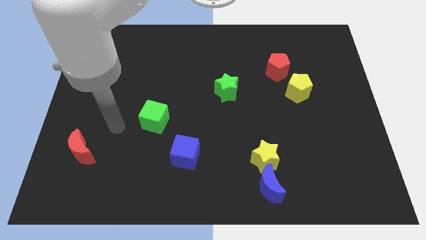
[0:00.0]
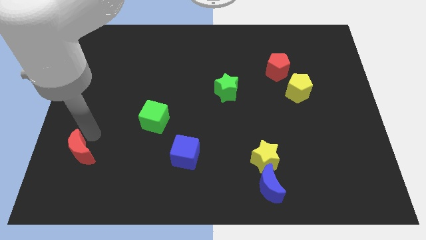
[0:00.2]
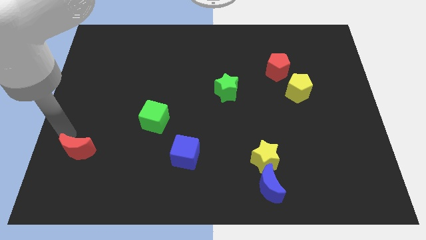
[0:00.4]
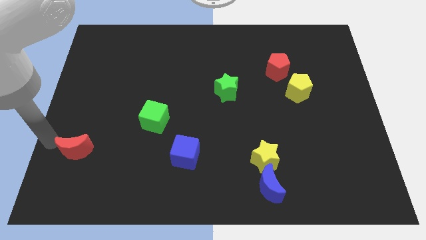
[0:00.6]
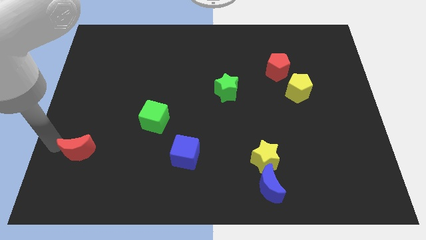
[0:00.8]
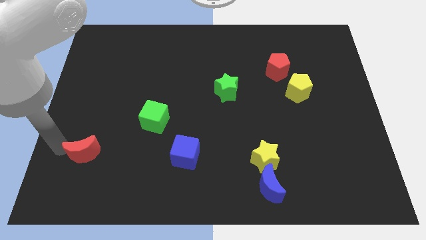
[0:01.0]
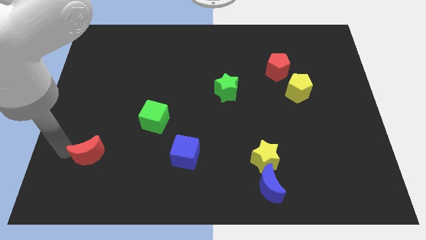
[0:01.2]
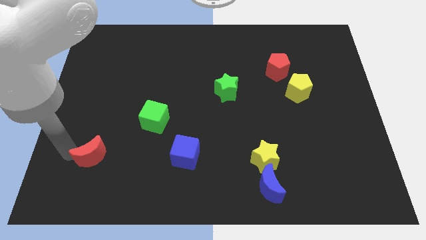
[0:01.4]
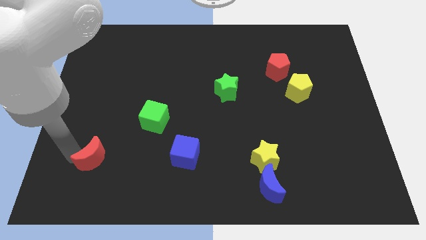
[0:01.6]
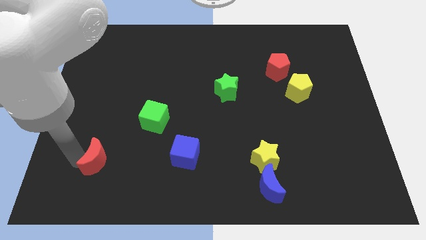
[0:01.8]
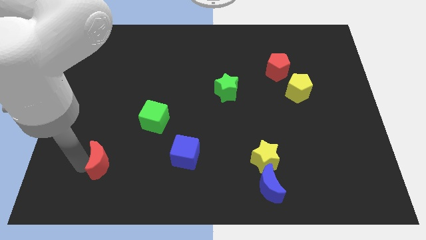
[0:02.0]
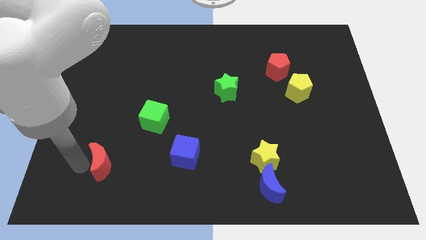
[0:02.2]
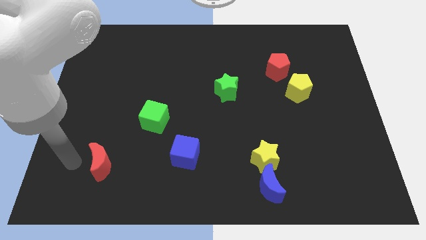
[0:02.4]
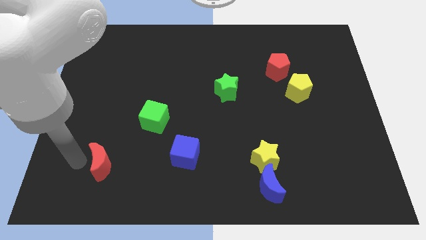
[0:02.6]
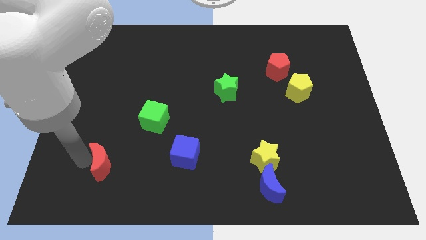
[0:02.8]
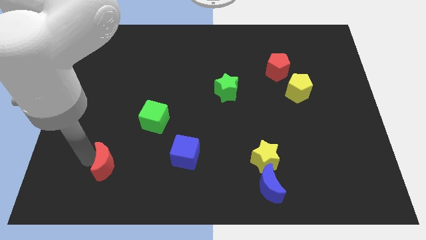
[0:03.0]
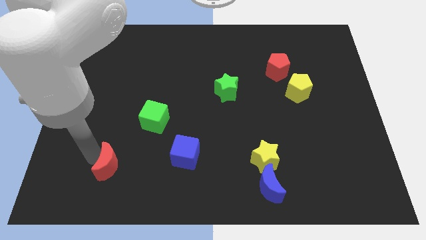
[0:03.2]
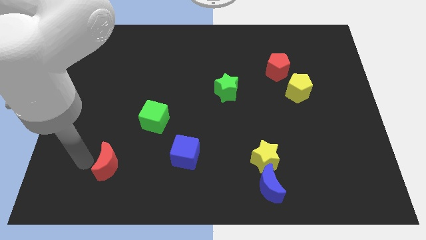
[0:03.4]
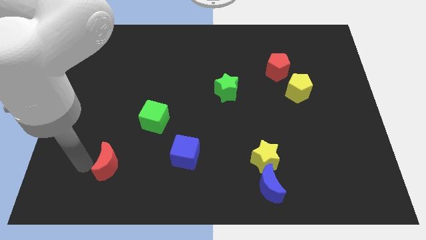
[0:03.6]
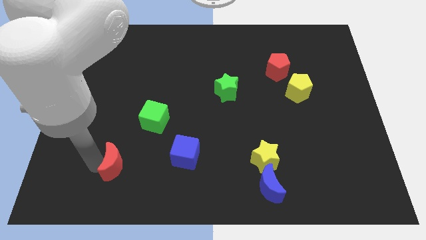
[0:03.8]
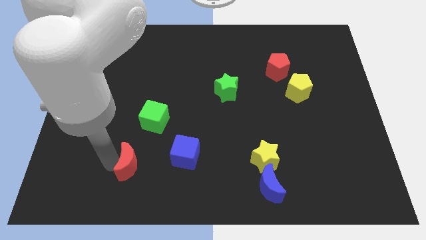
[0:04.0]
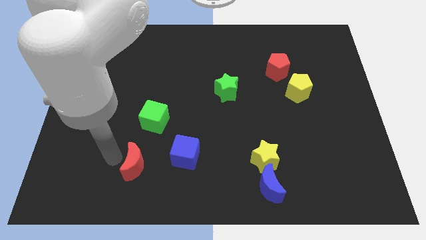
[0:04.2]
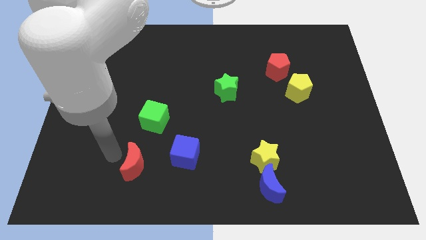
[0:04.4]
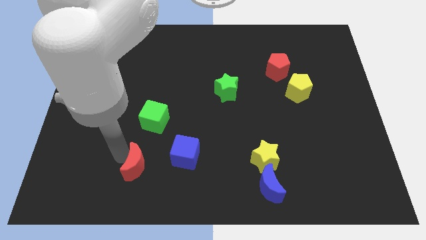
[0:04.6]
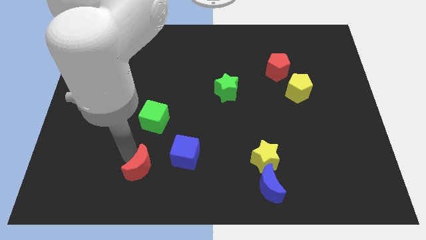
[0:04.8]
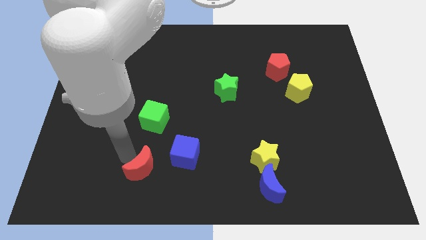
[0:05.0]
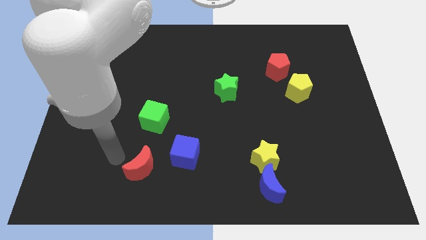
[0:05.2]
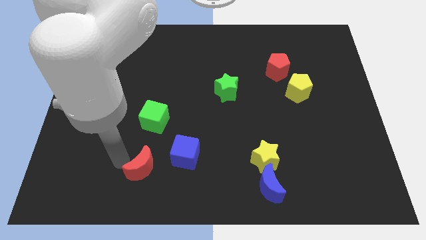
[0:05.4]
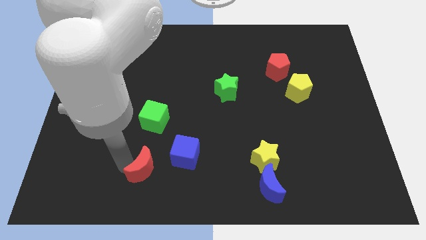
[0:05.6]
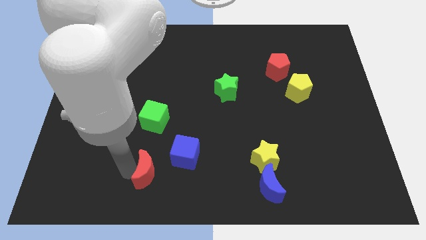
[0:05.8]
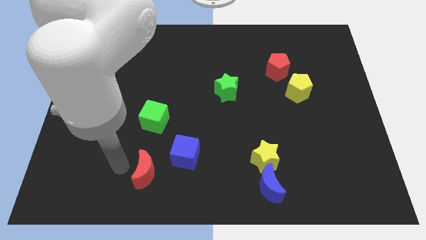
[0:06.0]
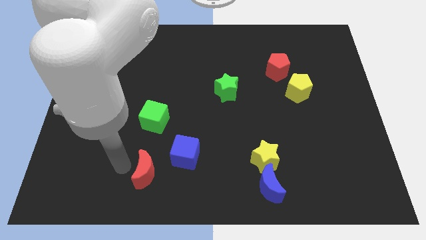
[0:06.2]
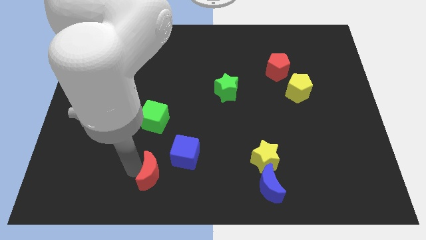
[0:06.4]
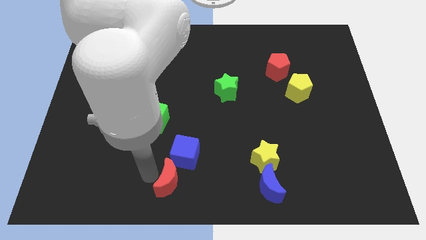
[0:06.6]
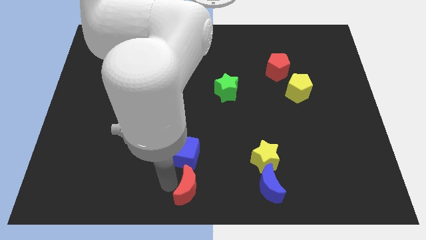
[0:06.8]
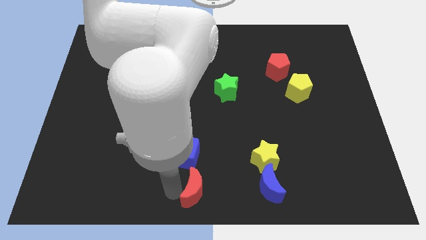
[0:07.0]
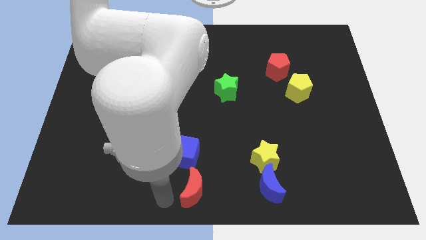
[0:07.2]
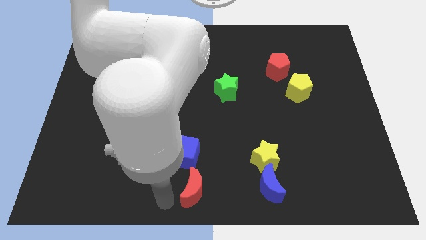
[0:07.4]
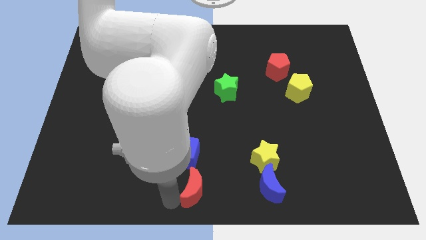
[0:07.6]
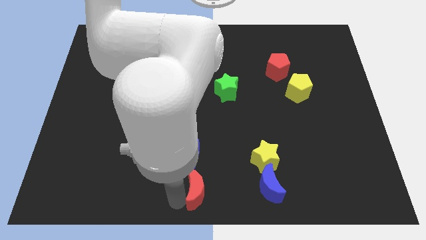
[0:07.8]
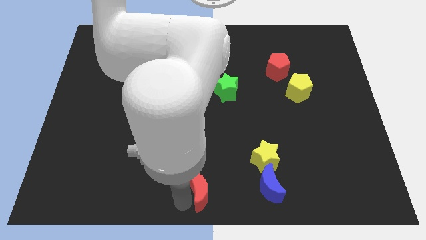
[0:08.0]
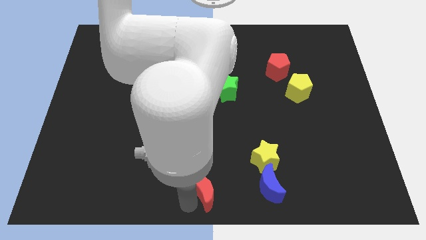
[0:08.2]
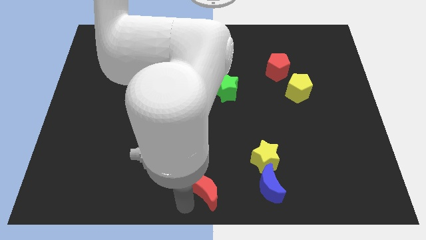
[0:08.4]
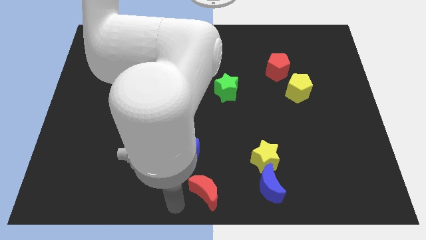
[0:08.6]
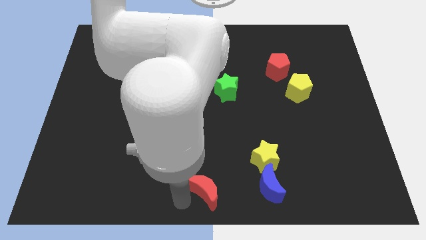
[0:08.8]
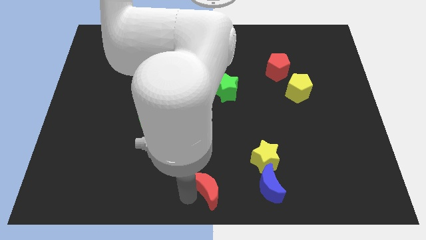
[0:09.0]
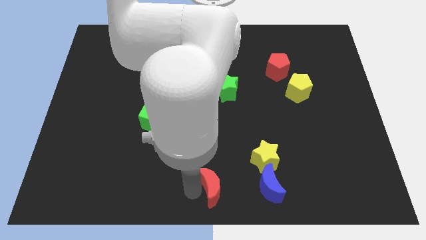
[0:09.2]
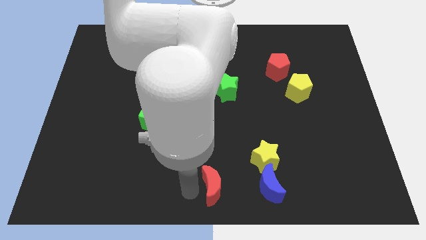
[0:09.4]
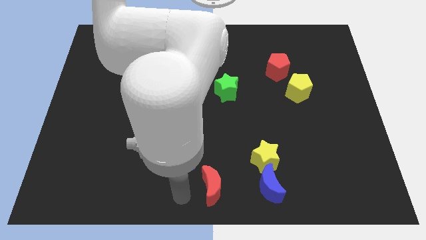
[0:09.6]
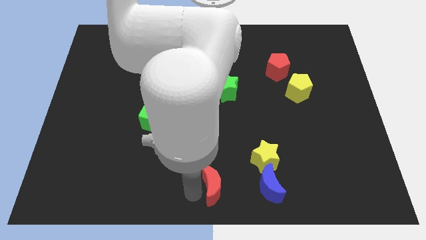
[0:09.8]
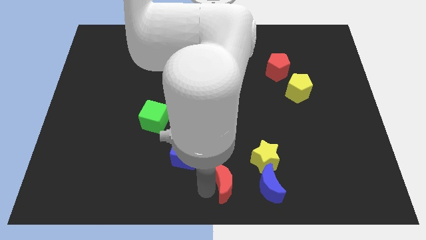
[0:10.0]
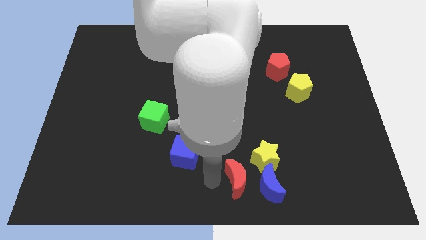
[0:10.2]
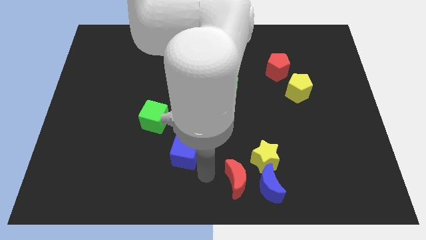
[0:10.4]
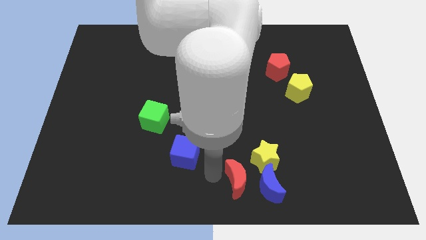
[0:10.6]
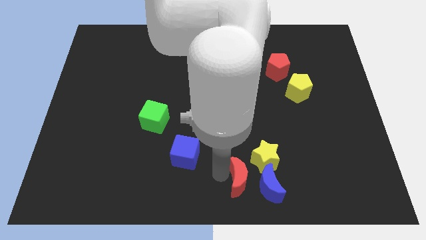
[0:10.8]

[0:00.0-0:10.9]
push the red moon close to the blue moon

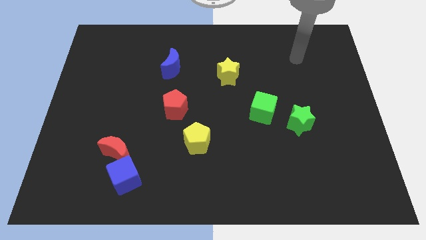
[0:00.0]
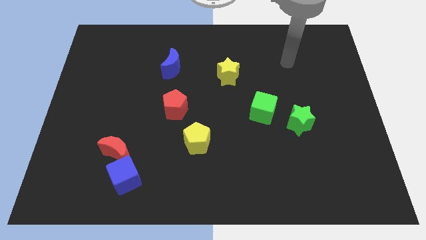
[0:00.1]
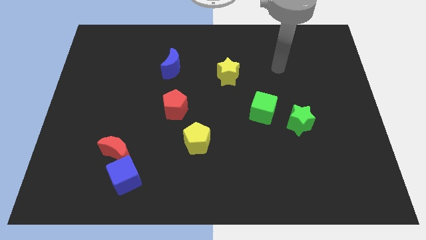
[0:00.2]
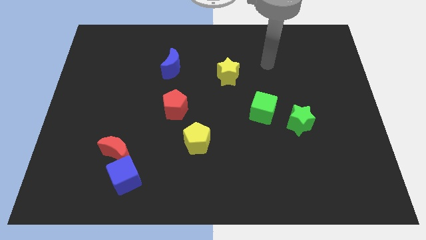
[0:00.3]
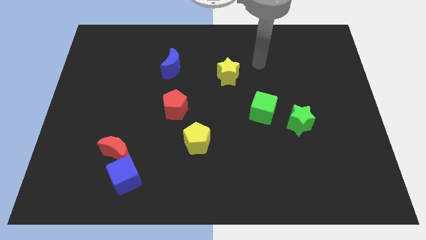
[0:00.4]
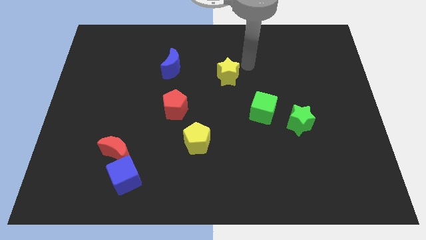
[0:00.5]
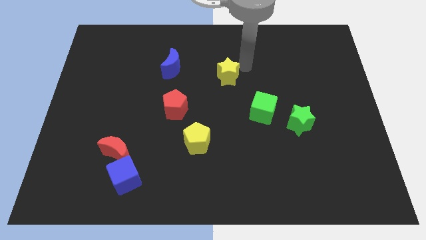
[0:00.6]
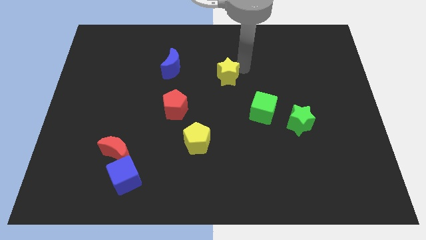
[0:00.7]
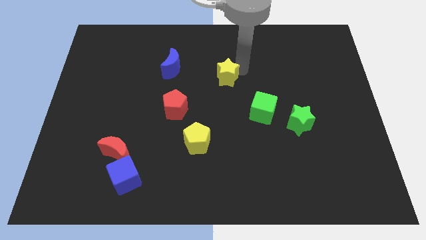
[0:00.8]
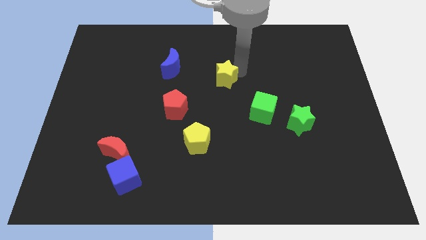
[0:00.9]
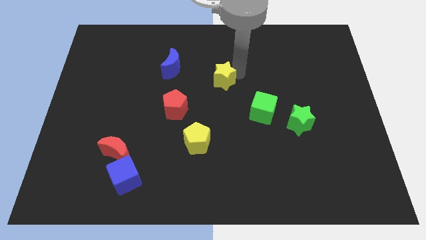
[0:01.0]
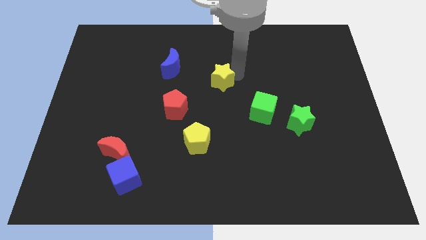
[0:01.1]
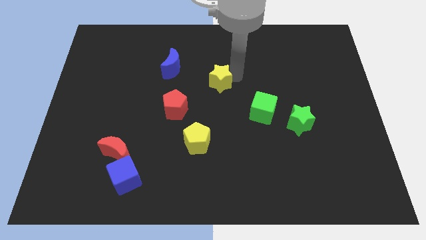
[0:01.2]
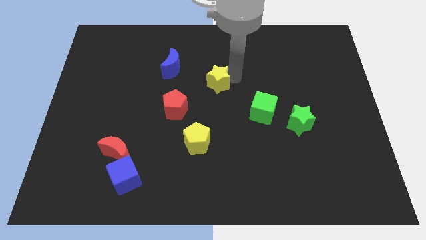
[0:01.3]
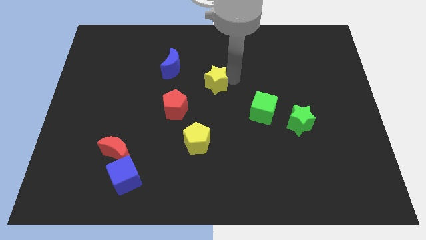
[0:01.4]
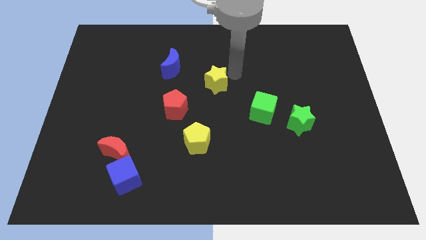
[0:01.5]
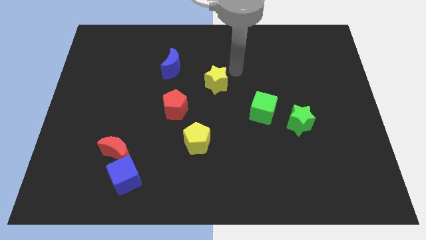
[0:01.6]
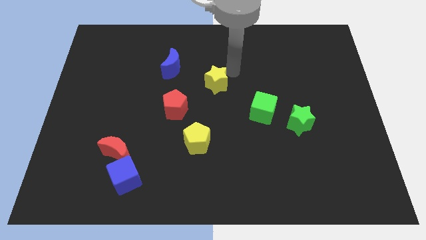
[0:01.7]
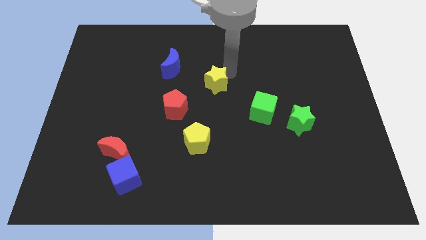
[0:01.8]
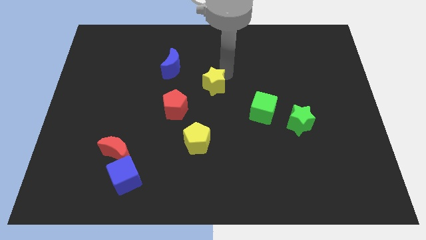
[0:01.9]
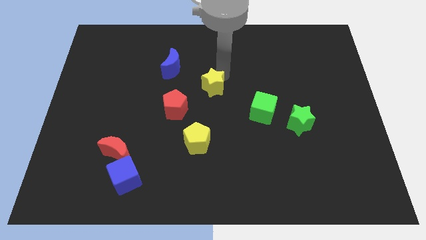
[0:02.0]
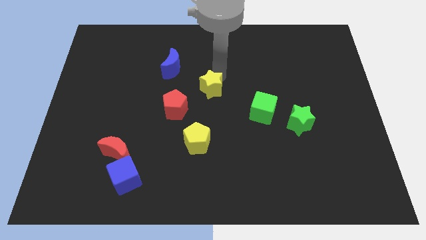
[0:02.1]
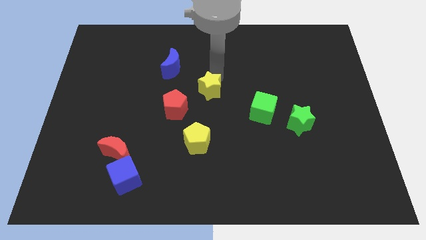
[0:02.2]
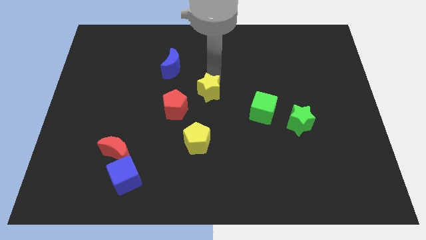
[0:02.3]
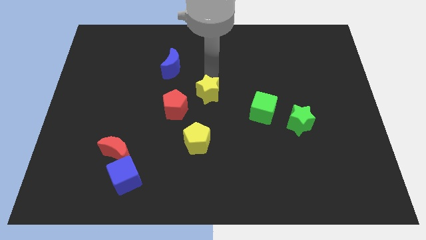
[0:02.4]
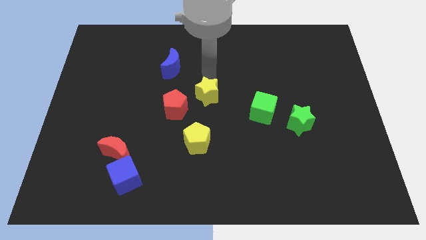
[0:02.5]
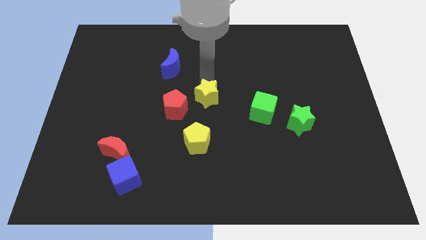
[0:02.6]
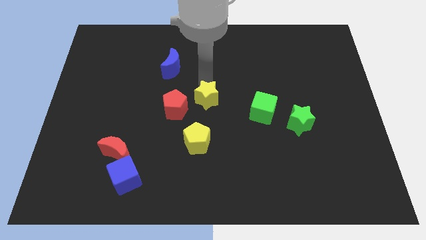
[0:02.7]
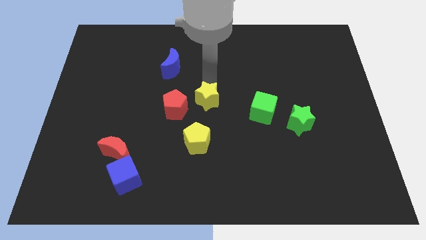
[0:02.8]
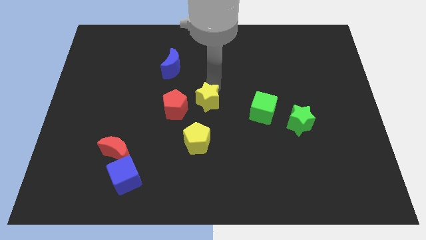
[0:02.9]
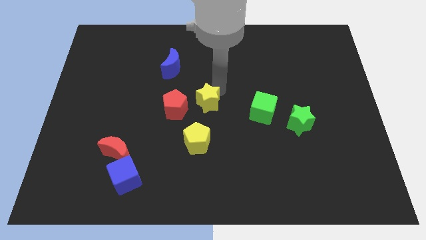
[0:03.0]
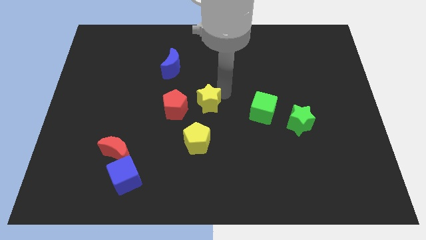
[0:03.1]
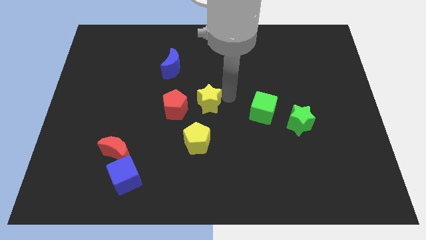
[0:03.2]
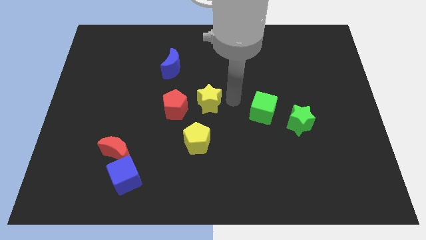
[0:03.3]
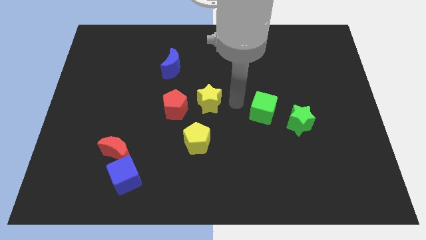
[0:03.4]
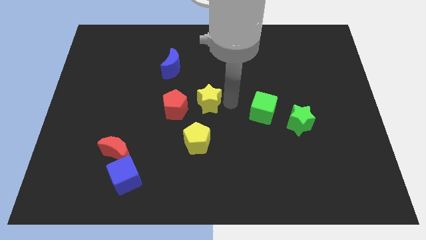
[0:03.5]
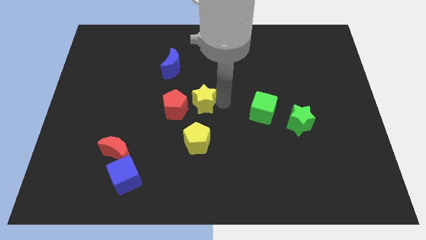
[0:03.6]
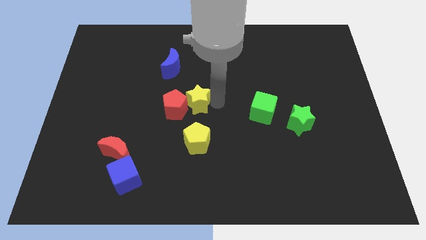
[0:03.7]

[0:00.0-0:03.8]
put the yellow star close to the red pentagon
